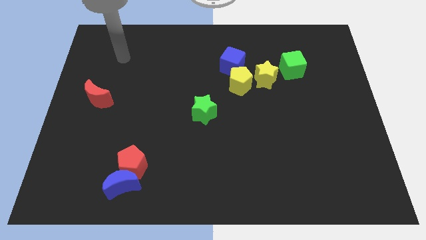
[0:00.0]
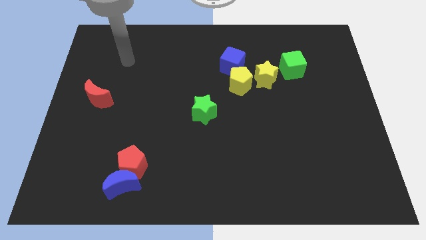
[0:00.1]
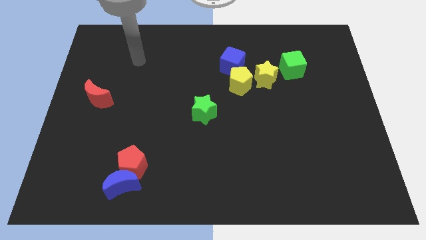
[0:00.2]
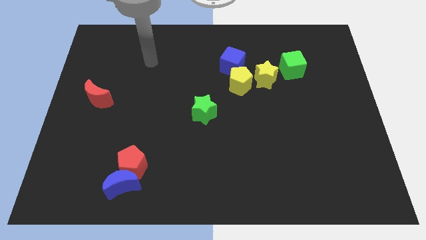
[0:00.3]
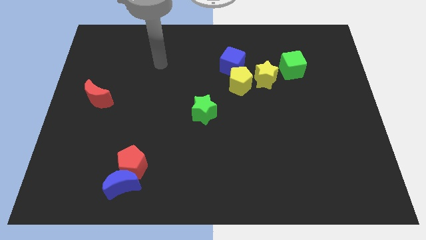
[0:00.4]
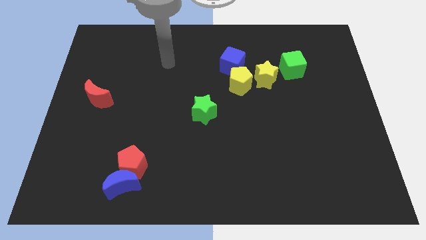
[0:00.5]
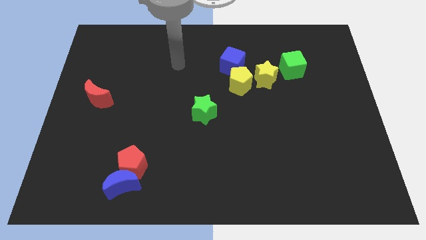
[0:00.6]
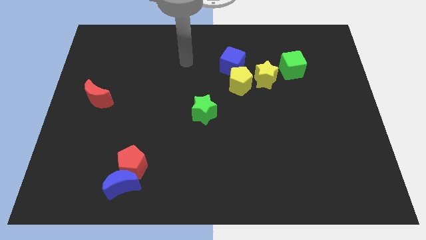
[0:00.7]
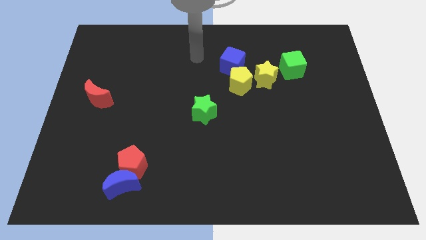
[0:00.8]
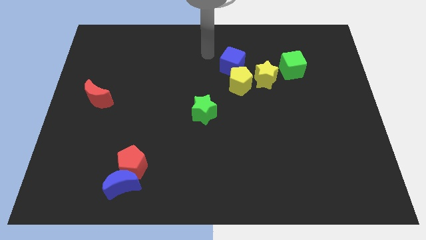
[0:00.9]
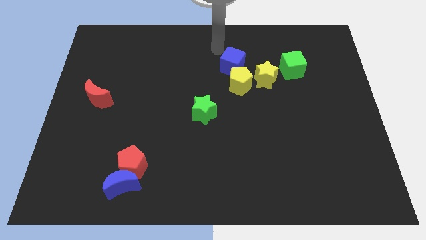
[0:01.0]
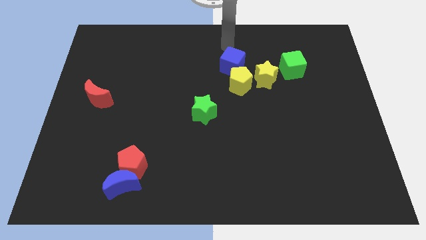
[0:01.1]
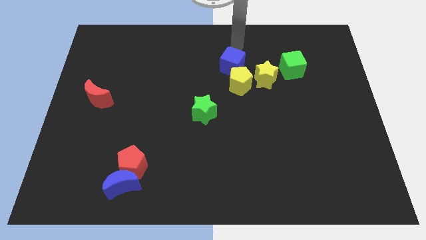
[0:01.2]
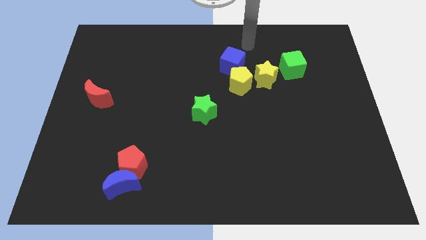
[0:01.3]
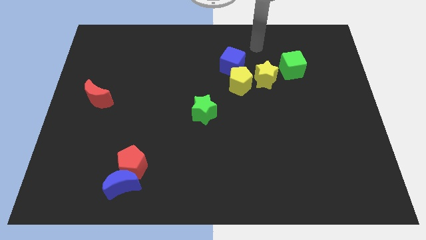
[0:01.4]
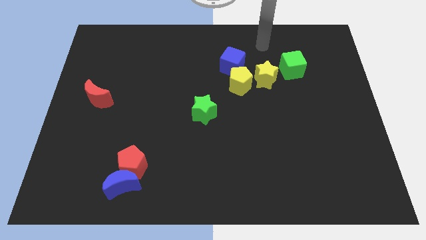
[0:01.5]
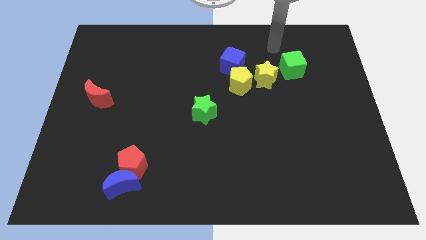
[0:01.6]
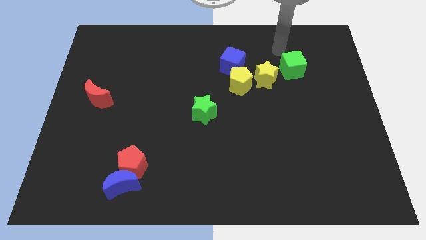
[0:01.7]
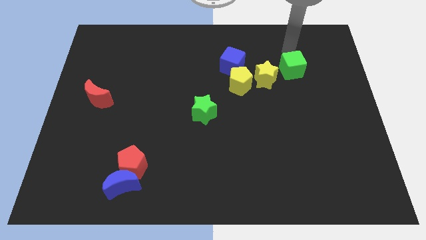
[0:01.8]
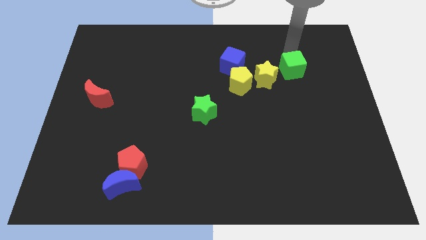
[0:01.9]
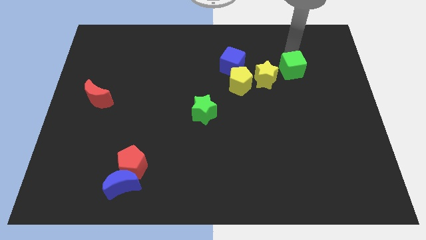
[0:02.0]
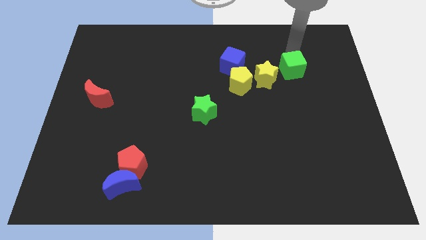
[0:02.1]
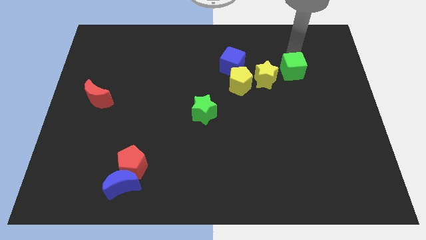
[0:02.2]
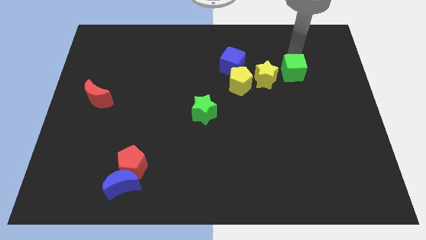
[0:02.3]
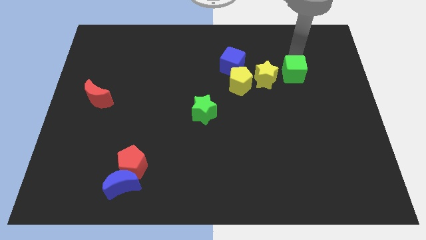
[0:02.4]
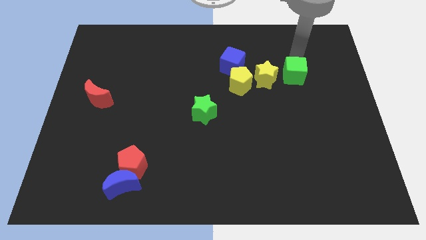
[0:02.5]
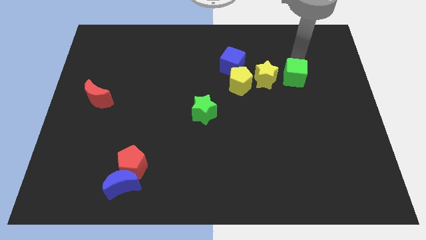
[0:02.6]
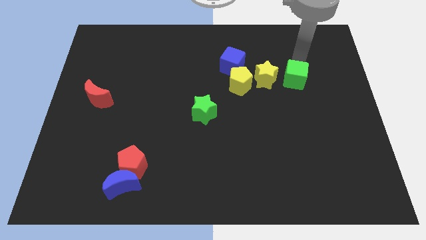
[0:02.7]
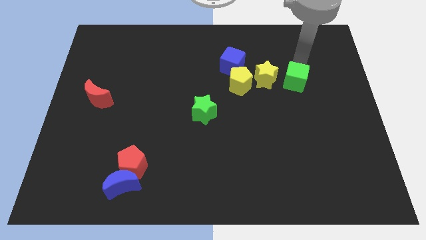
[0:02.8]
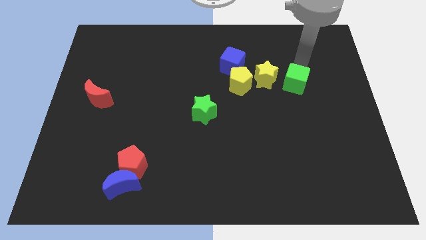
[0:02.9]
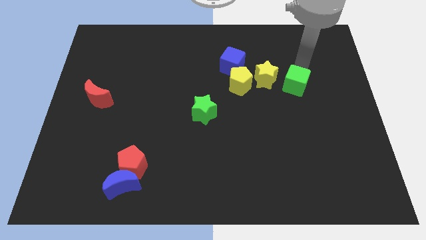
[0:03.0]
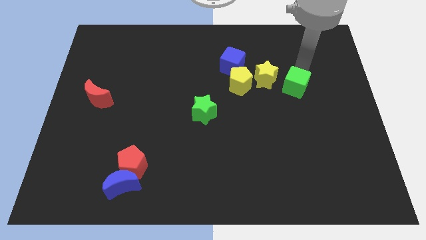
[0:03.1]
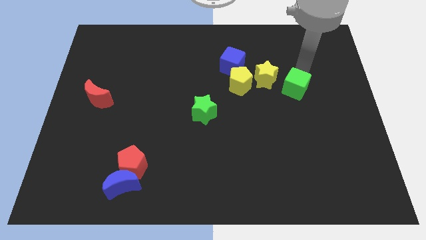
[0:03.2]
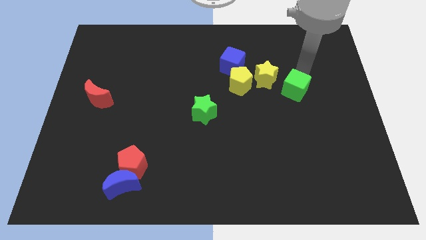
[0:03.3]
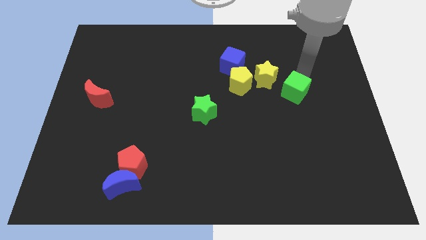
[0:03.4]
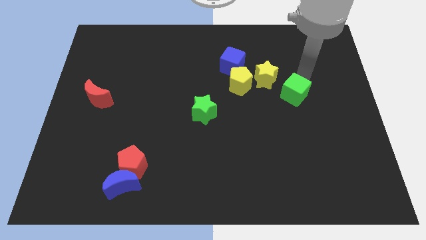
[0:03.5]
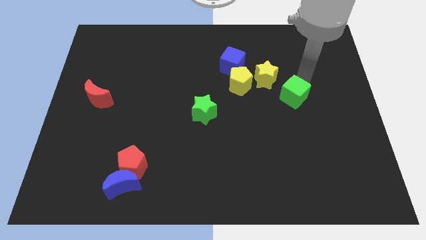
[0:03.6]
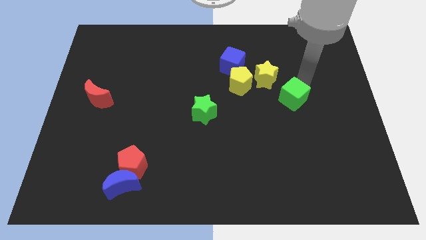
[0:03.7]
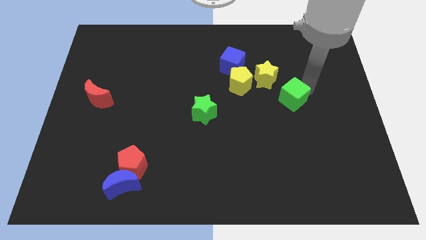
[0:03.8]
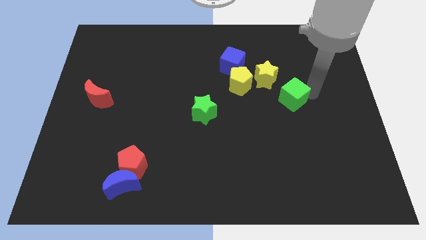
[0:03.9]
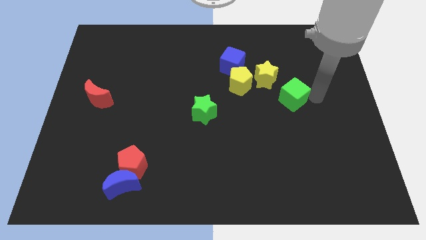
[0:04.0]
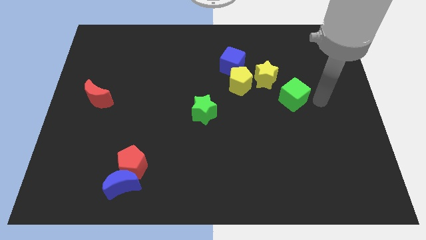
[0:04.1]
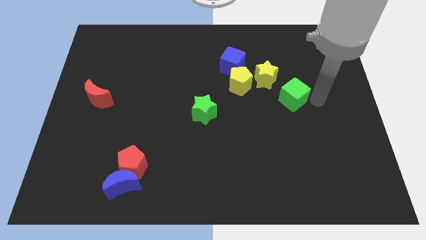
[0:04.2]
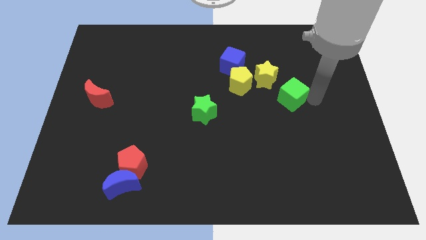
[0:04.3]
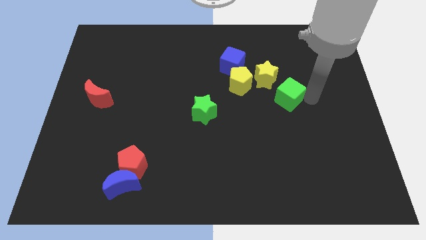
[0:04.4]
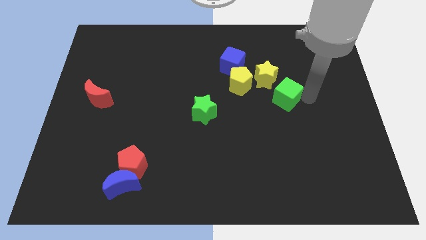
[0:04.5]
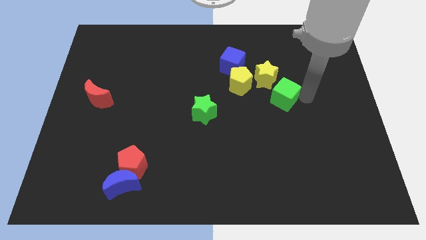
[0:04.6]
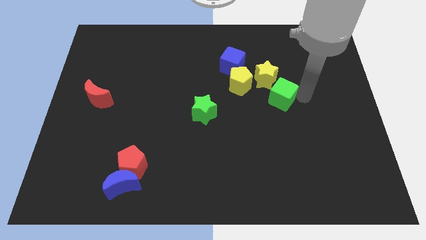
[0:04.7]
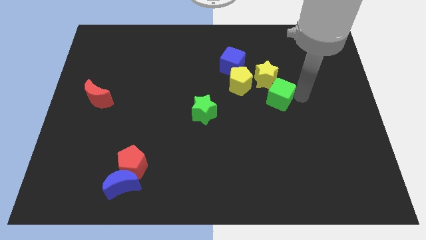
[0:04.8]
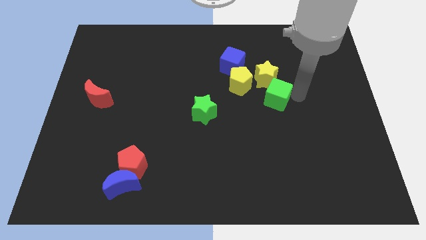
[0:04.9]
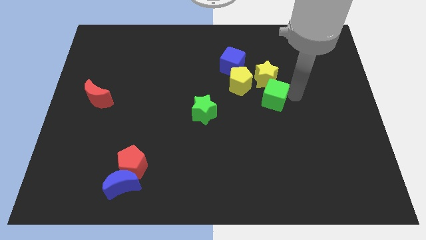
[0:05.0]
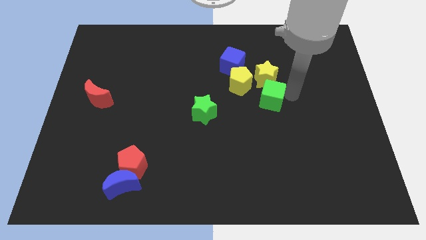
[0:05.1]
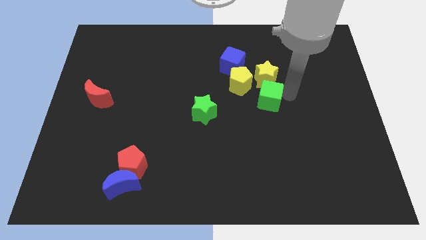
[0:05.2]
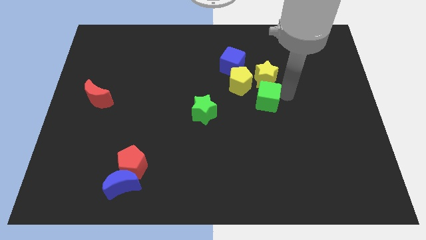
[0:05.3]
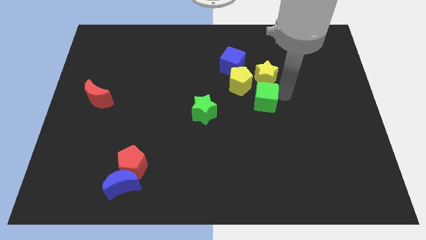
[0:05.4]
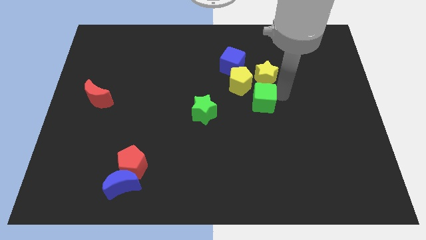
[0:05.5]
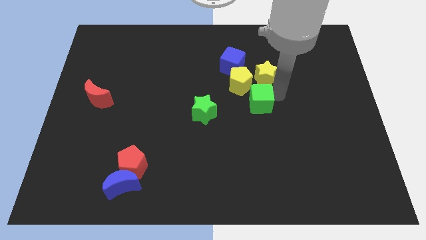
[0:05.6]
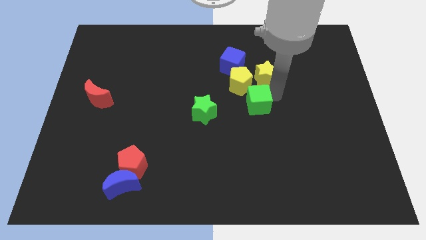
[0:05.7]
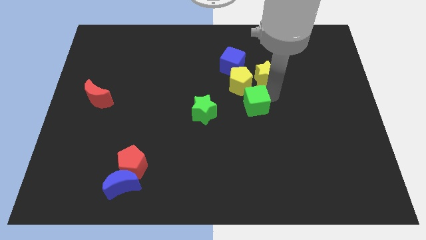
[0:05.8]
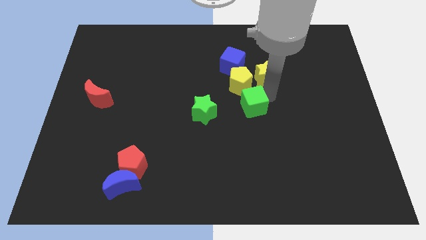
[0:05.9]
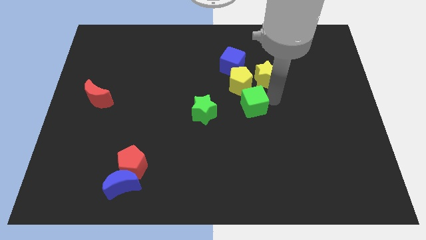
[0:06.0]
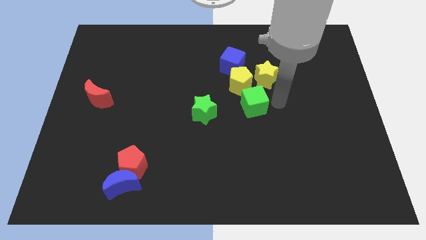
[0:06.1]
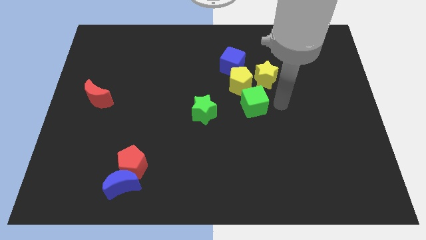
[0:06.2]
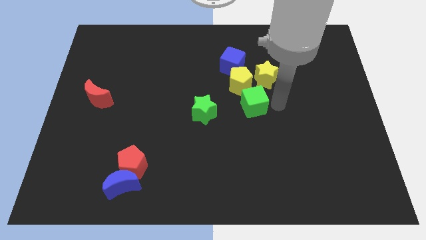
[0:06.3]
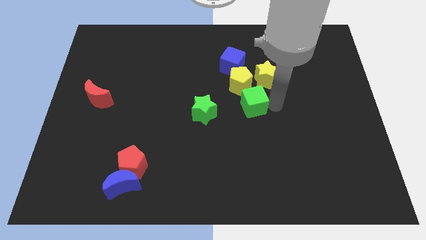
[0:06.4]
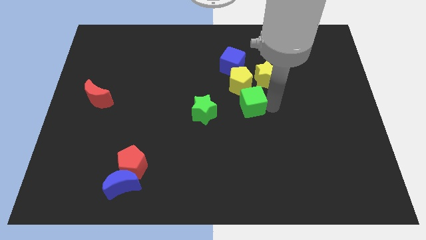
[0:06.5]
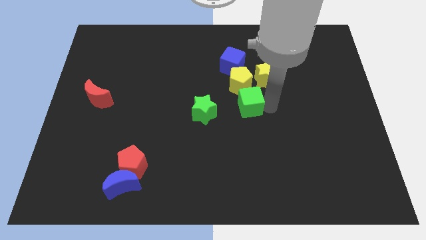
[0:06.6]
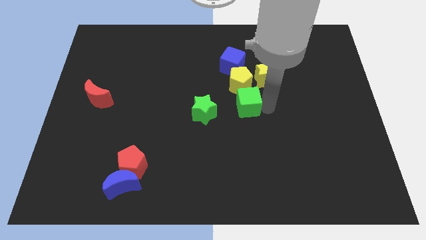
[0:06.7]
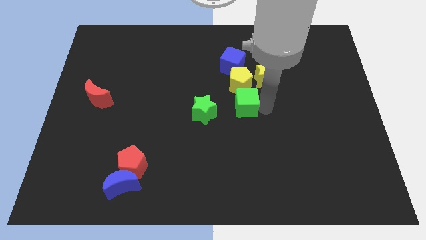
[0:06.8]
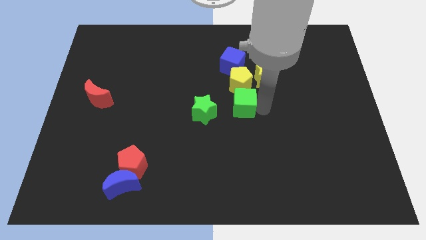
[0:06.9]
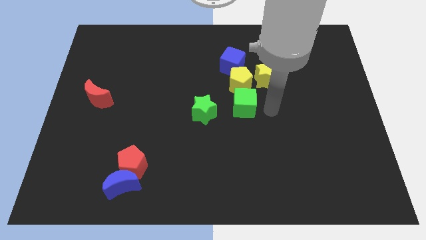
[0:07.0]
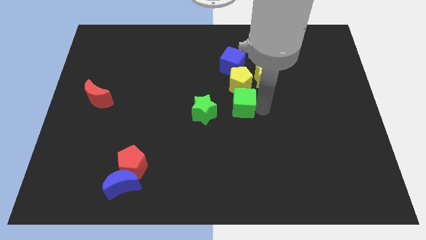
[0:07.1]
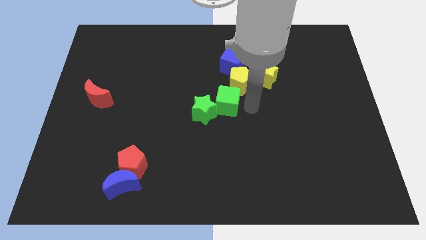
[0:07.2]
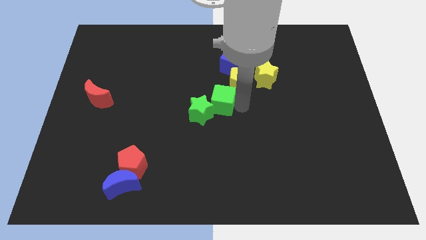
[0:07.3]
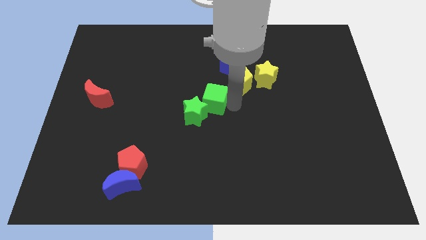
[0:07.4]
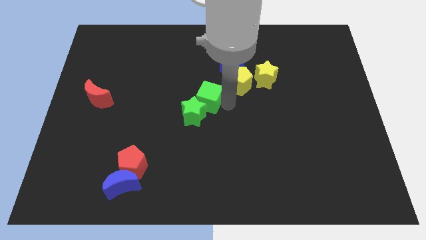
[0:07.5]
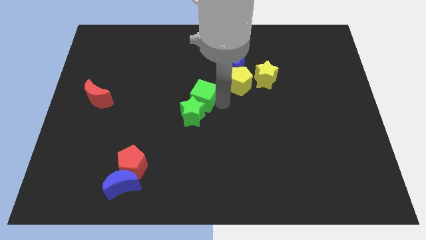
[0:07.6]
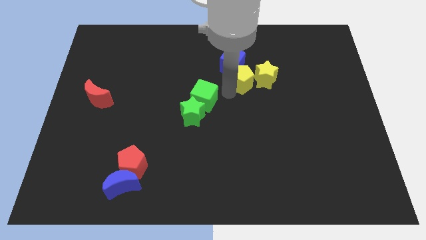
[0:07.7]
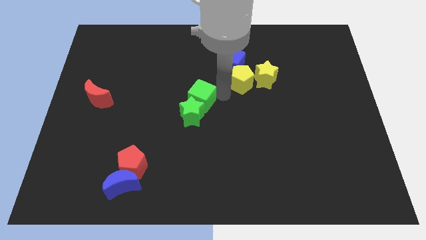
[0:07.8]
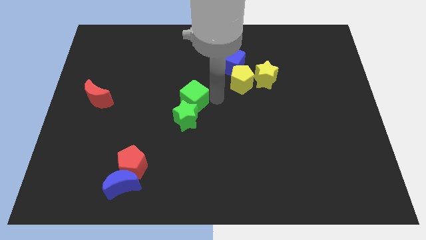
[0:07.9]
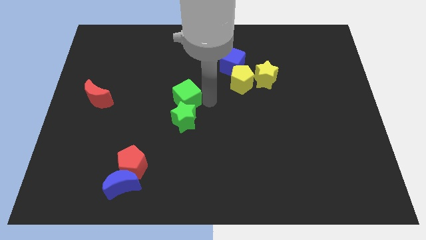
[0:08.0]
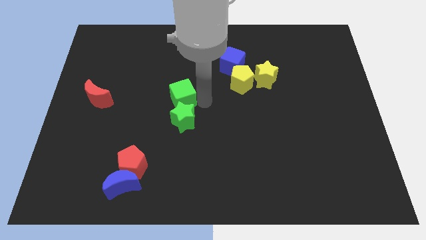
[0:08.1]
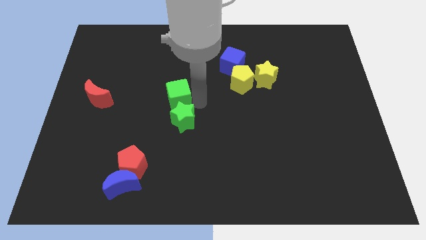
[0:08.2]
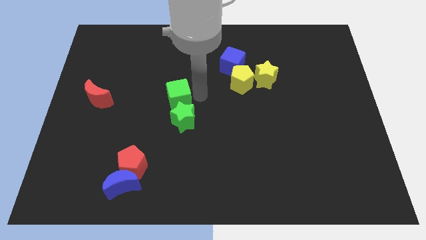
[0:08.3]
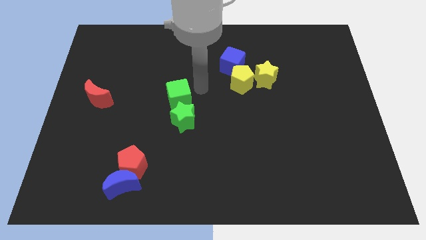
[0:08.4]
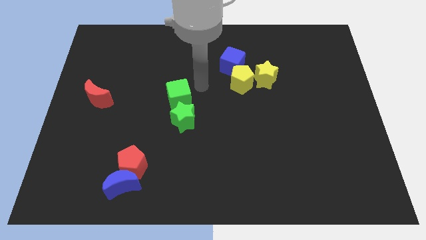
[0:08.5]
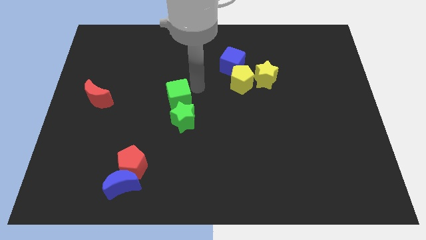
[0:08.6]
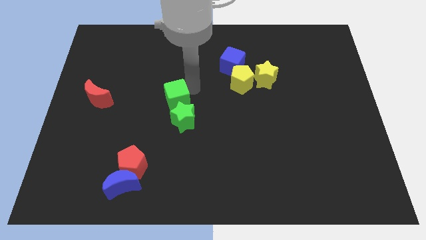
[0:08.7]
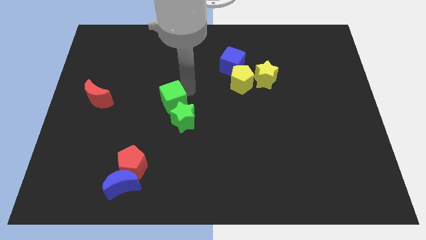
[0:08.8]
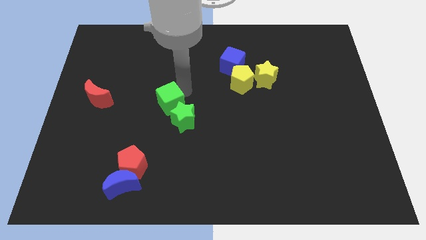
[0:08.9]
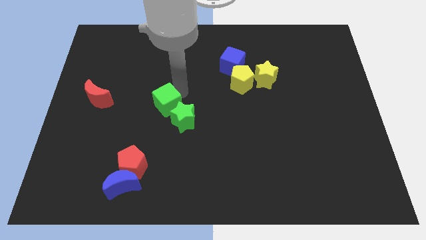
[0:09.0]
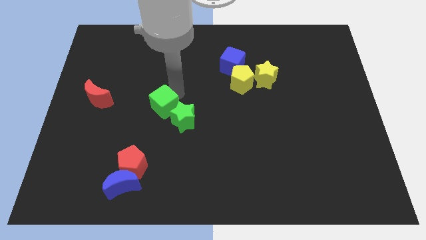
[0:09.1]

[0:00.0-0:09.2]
push the green cube to the left of the green star
